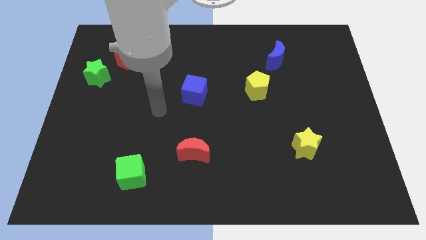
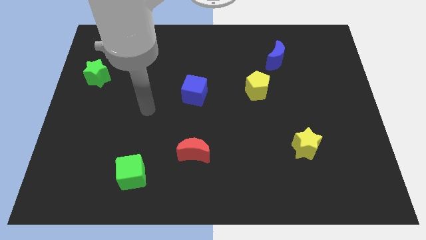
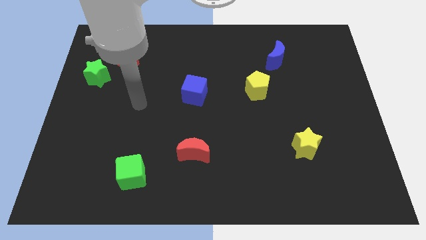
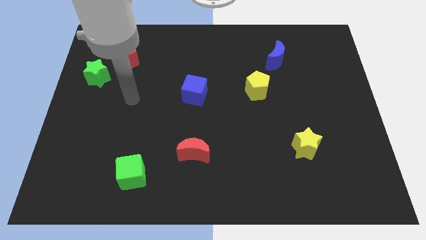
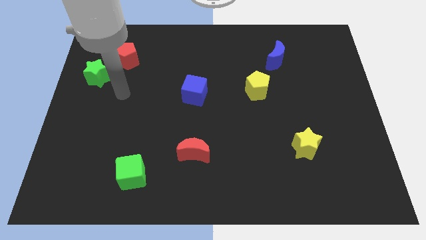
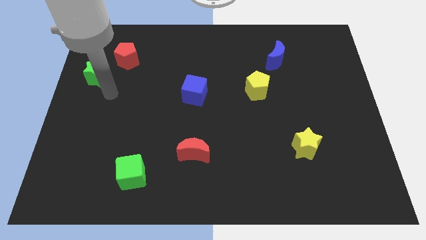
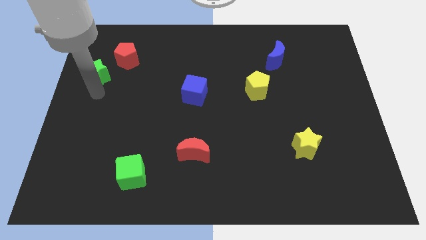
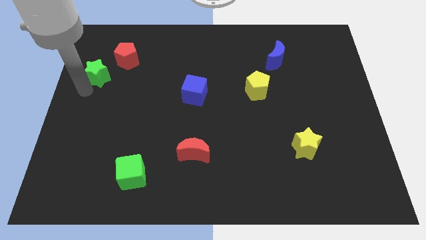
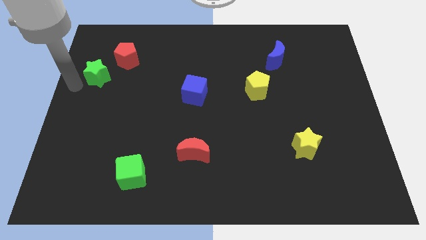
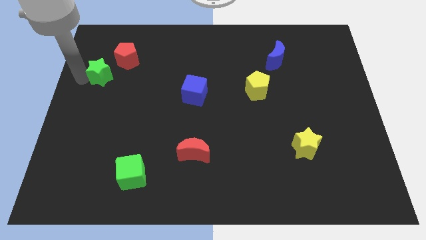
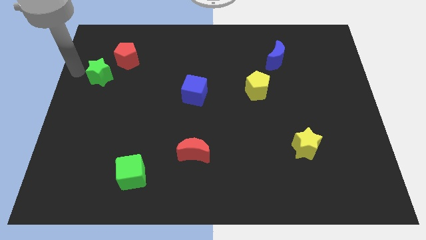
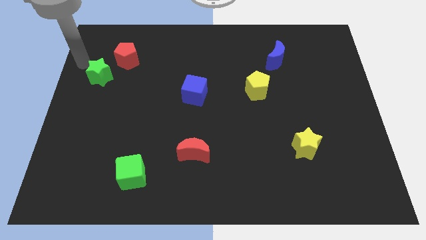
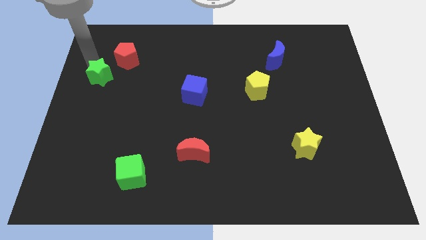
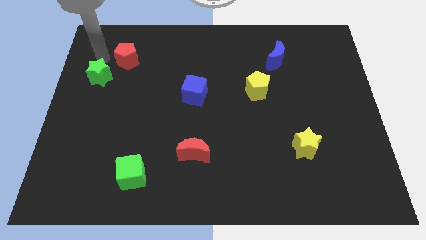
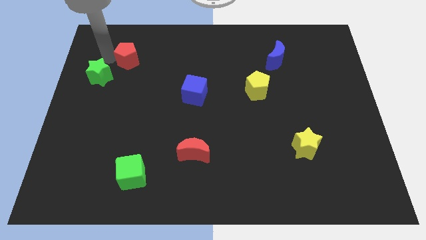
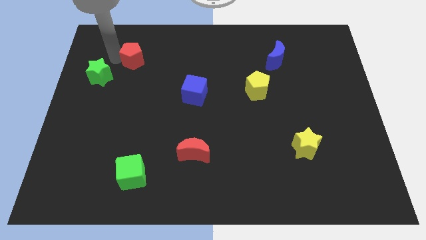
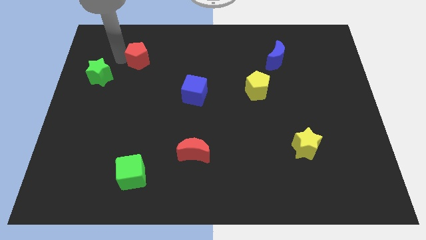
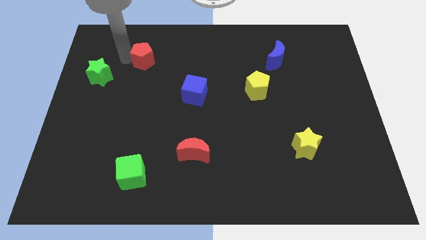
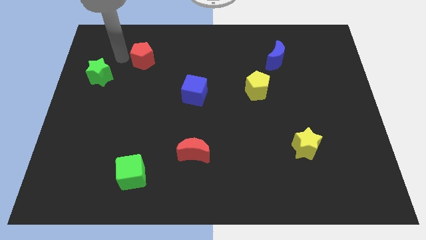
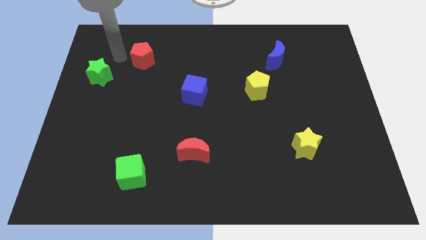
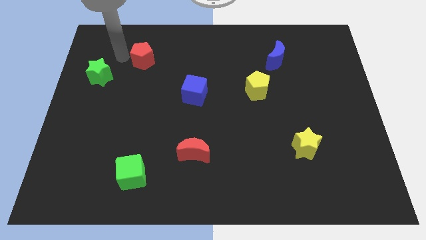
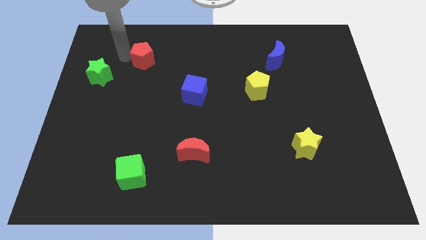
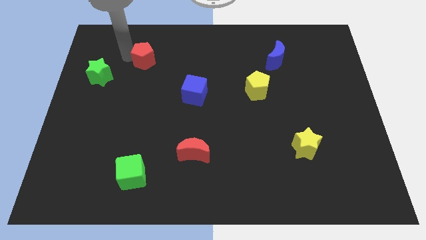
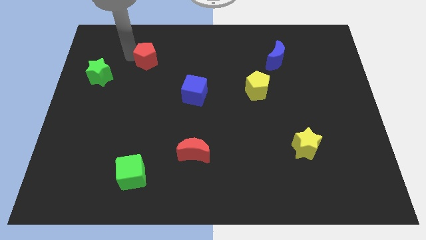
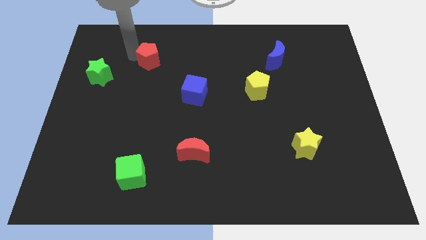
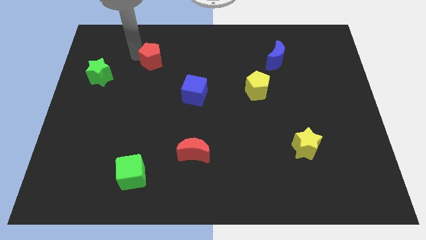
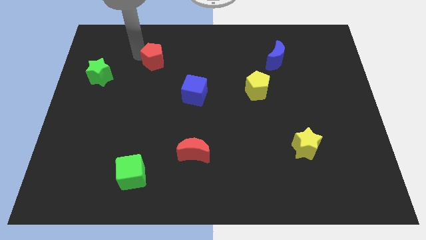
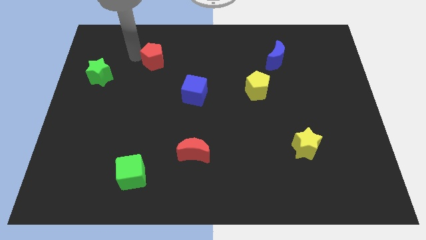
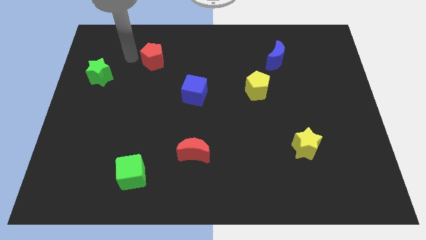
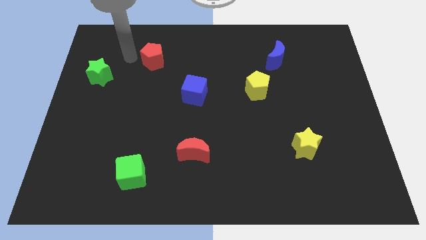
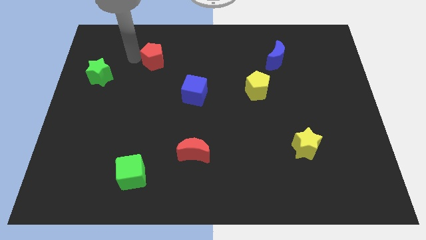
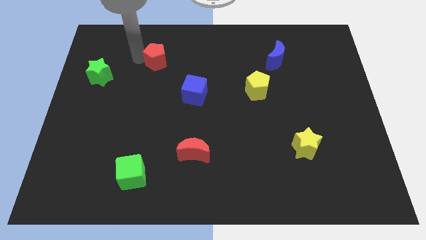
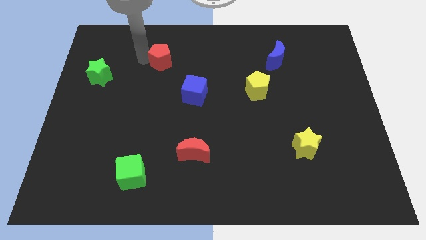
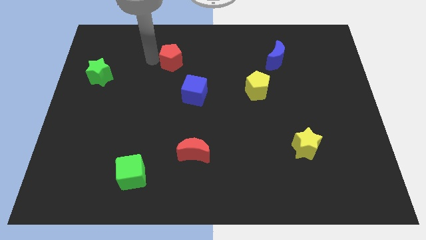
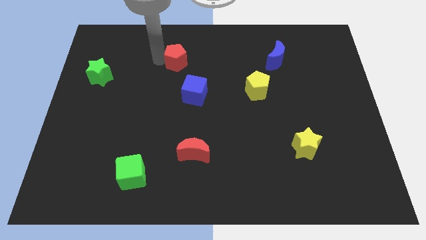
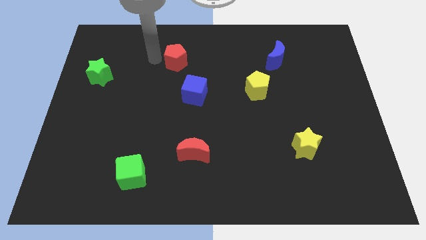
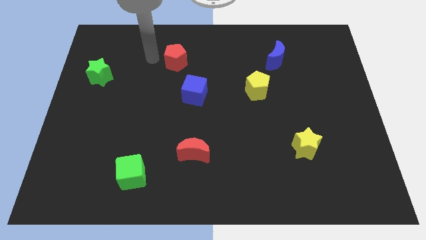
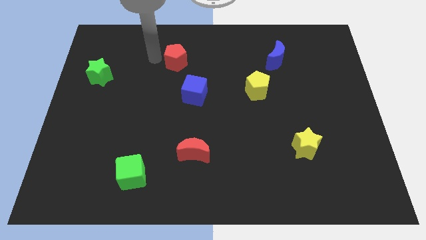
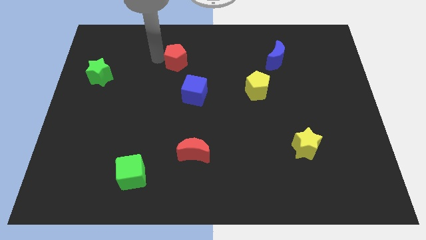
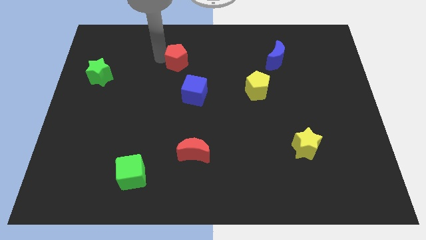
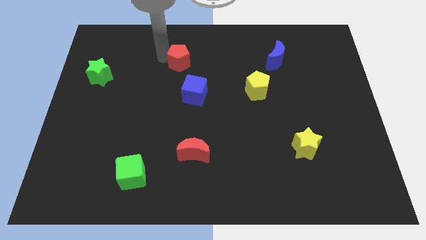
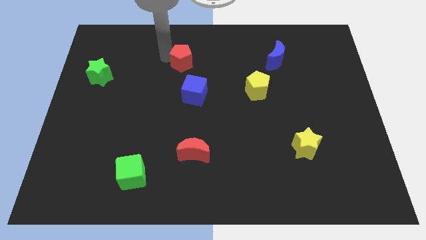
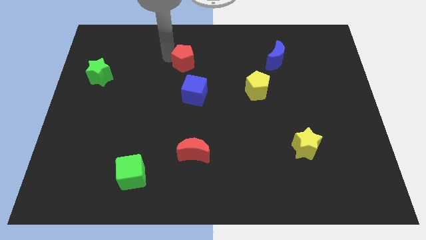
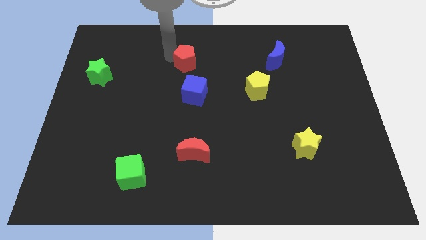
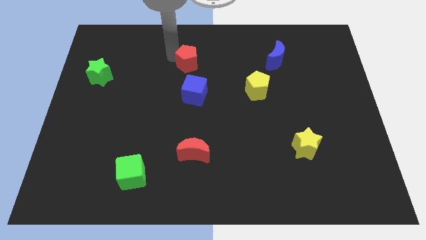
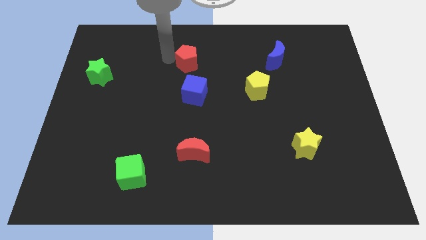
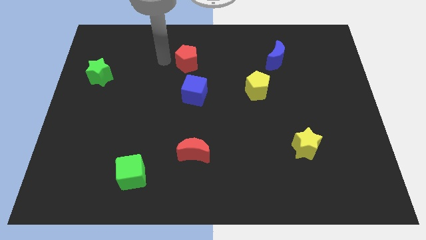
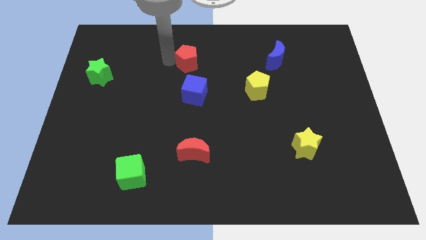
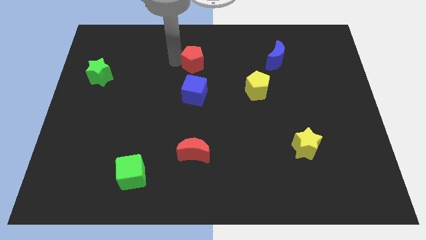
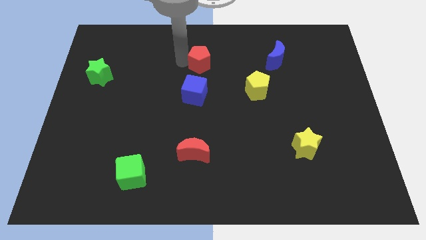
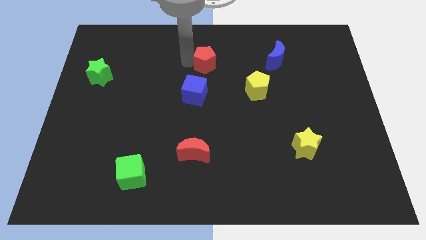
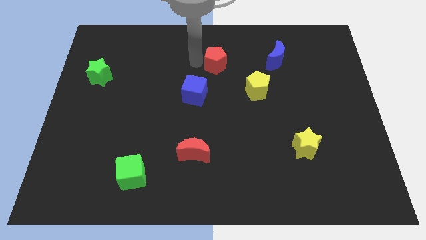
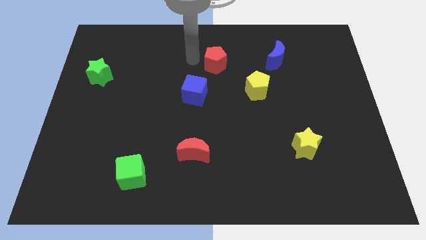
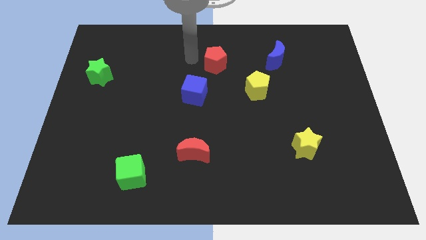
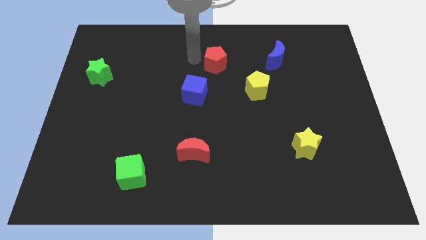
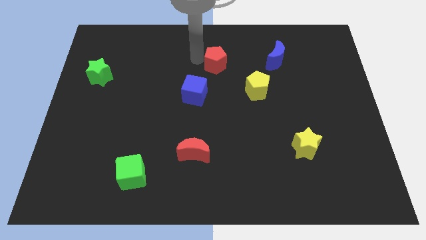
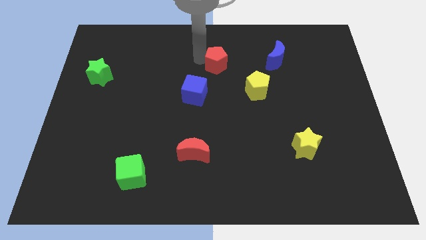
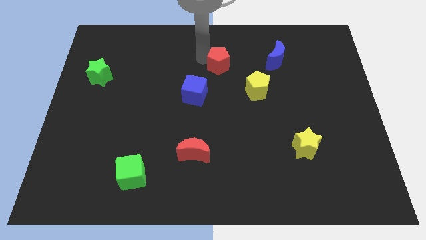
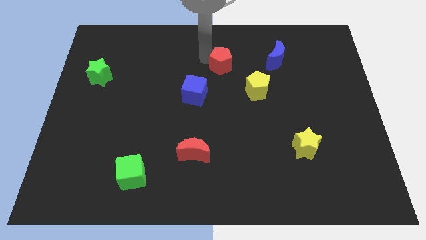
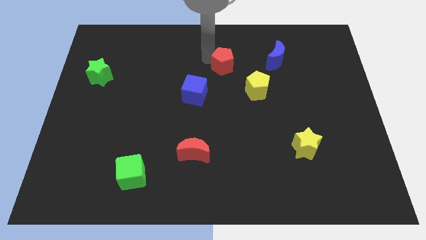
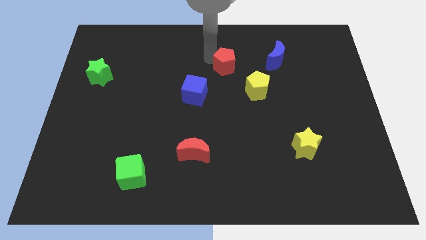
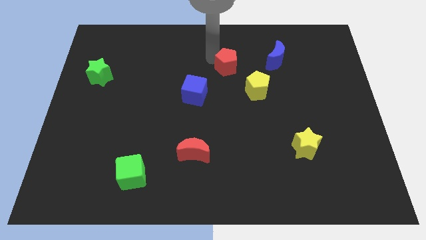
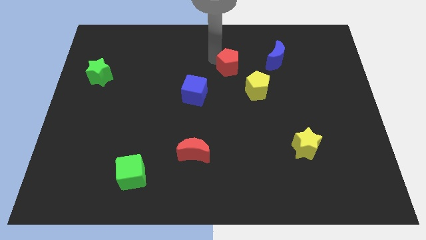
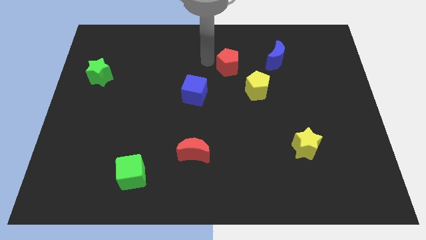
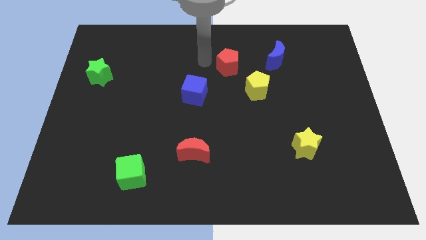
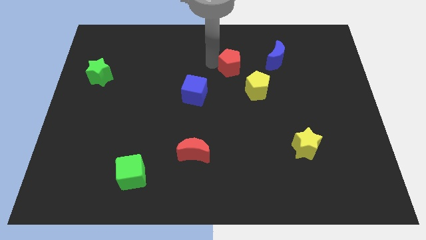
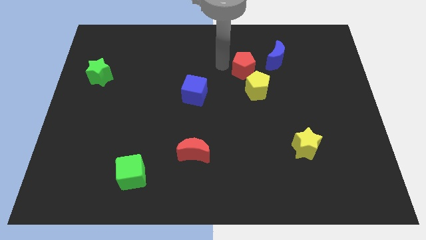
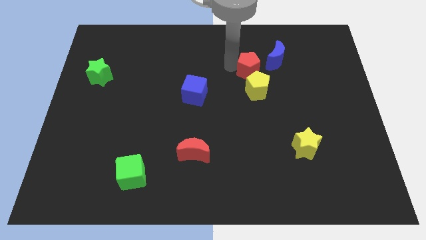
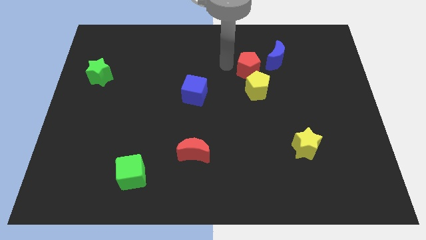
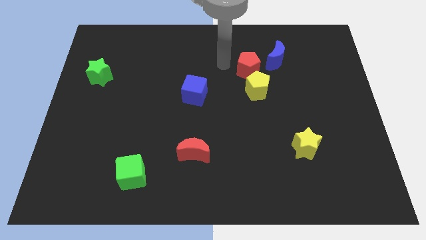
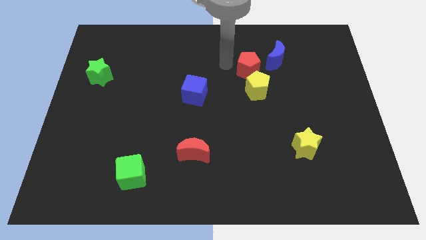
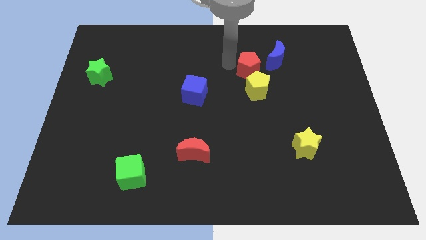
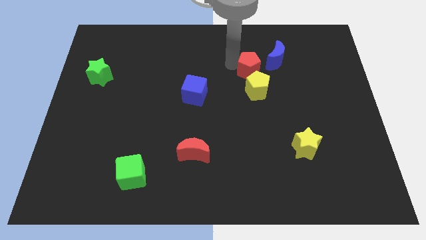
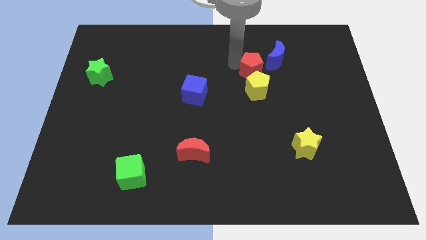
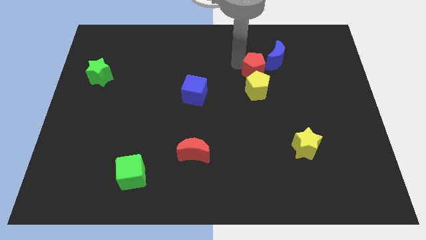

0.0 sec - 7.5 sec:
slide the red pentagon diagonally up and to the right of the yellow pentagon

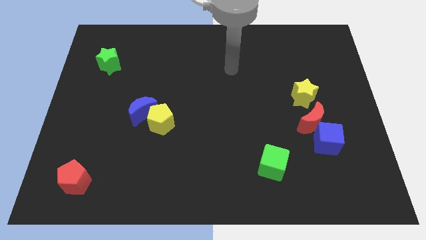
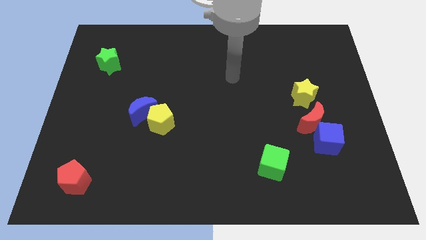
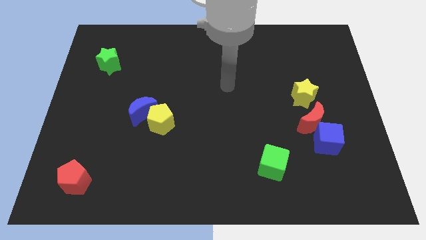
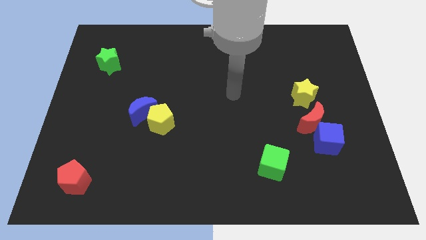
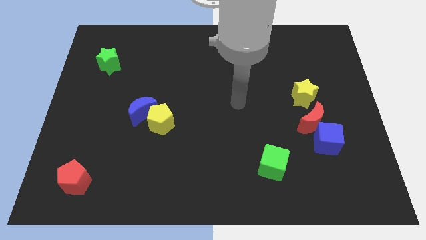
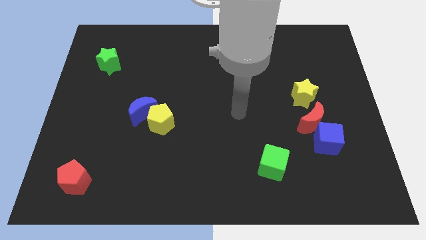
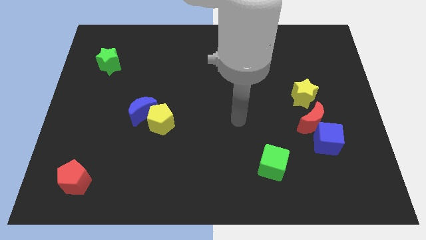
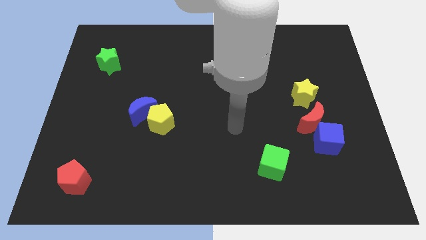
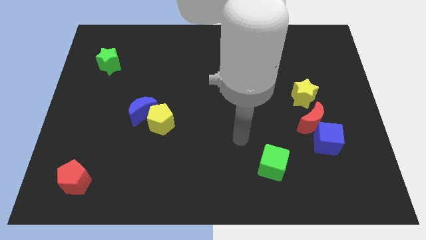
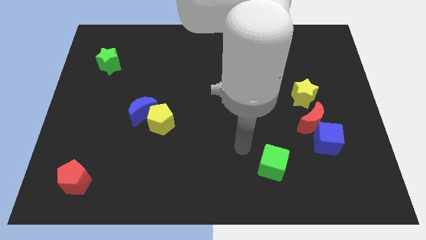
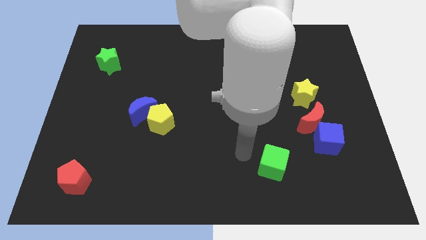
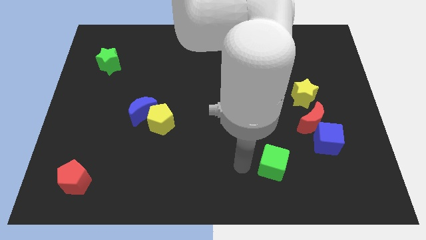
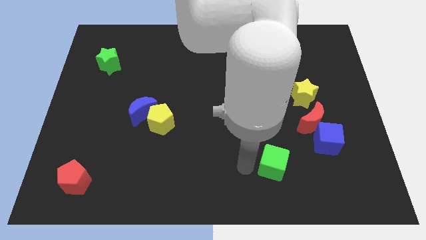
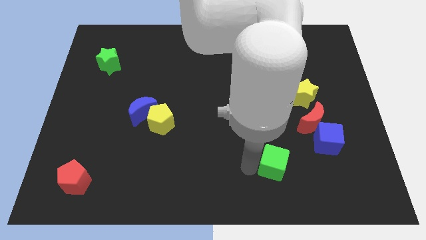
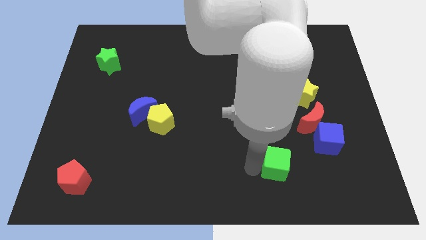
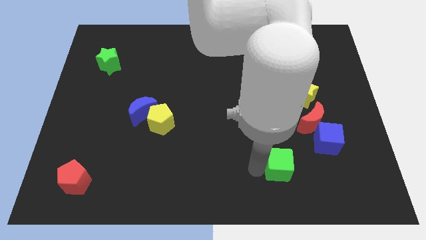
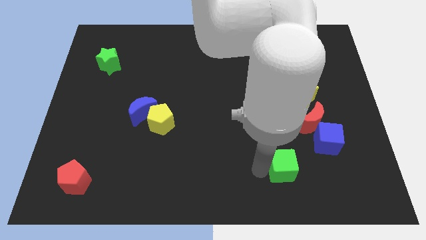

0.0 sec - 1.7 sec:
push the green cube to the bottom left side of the blue cube
